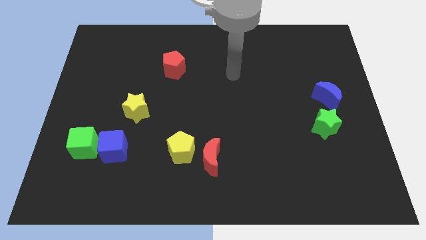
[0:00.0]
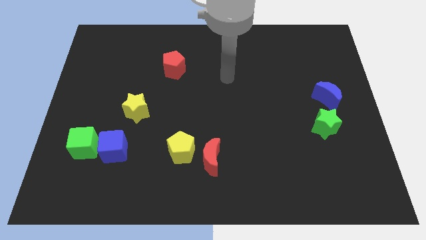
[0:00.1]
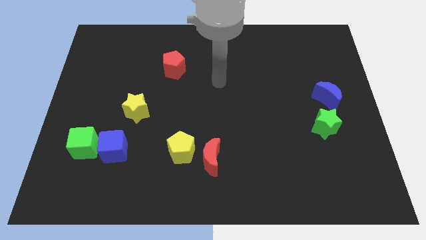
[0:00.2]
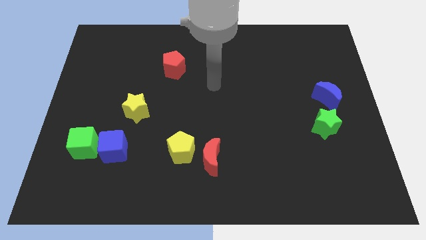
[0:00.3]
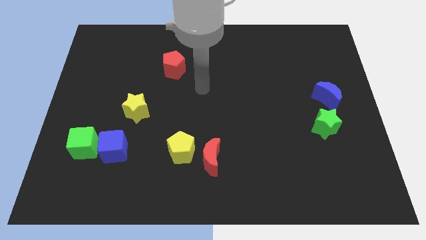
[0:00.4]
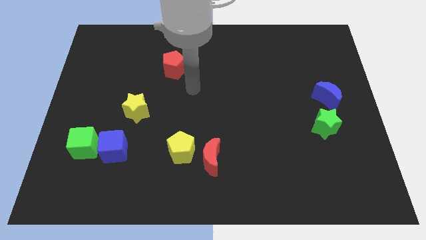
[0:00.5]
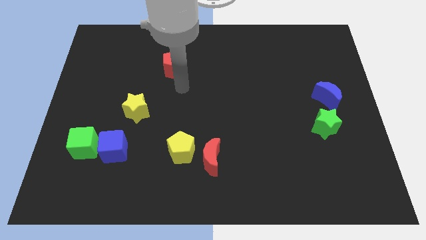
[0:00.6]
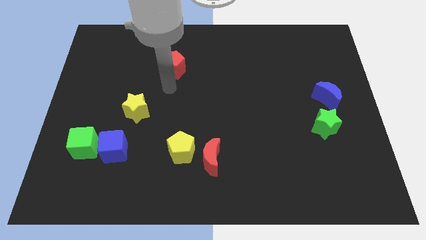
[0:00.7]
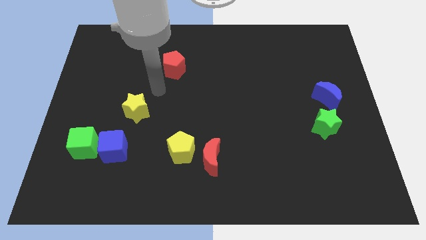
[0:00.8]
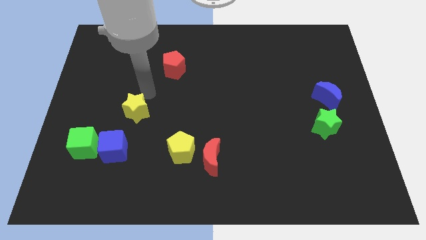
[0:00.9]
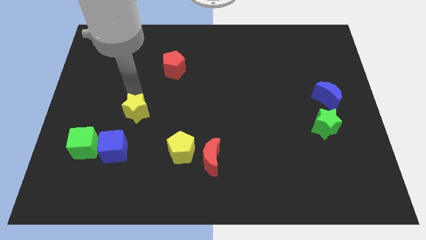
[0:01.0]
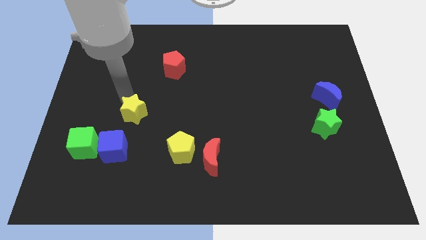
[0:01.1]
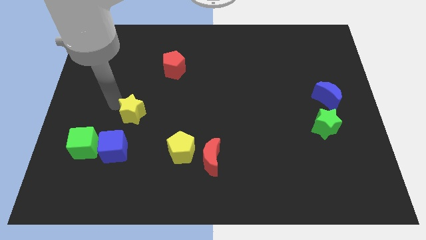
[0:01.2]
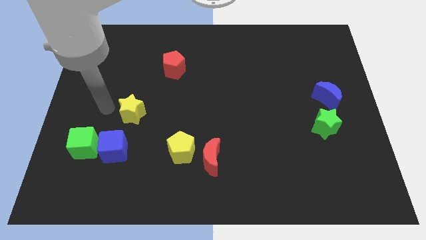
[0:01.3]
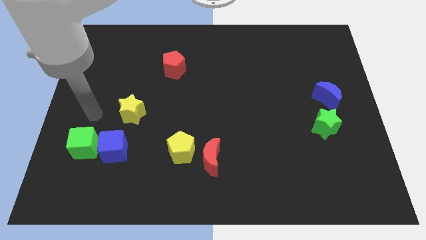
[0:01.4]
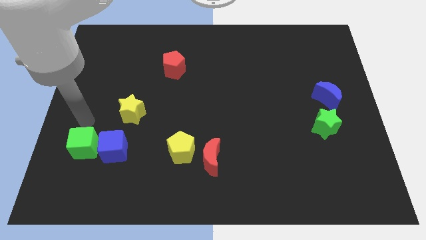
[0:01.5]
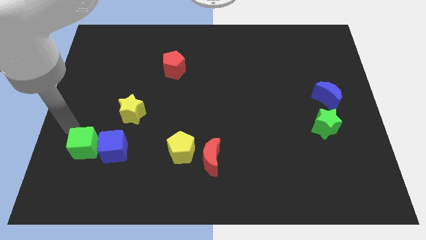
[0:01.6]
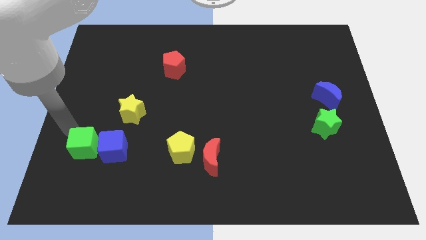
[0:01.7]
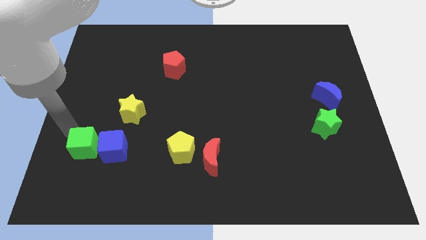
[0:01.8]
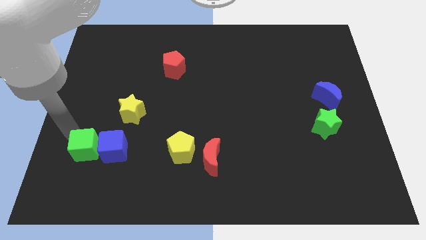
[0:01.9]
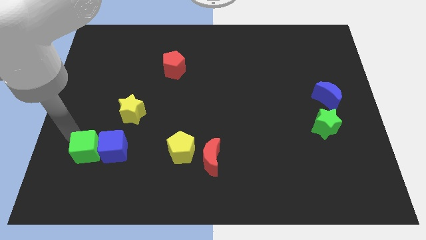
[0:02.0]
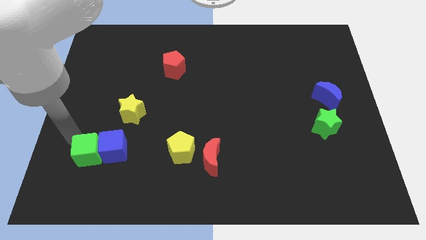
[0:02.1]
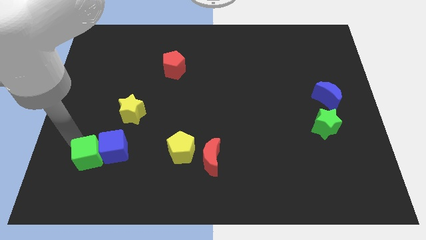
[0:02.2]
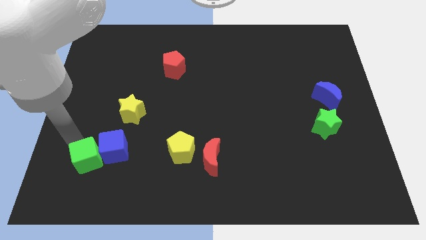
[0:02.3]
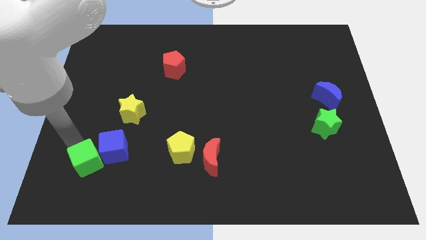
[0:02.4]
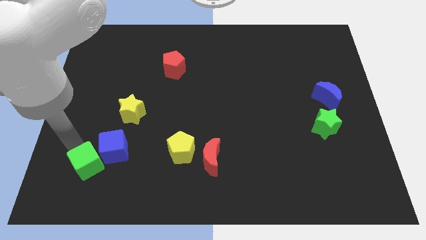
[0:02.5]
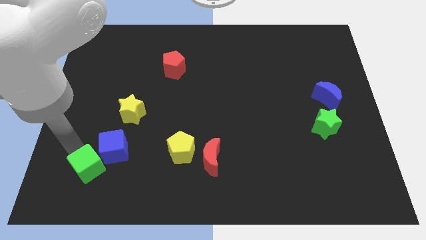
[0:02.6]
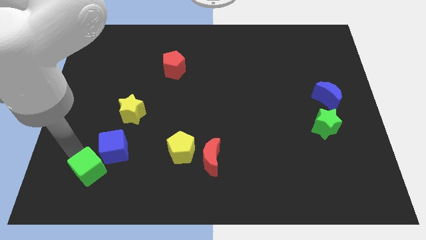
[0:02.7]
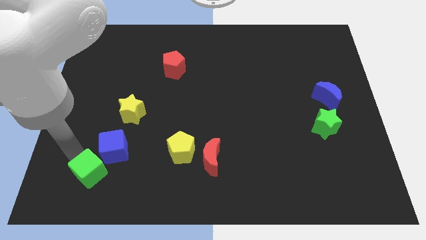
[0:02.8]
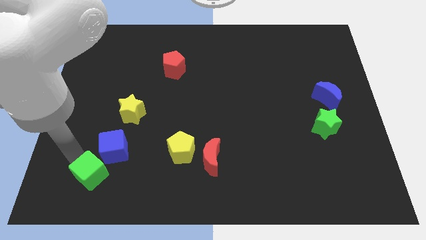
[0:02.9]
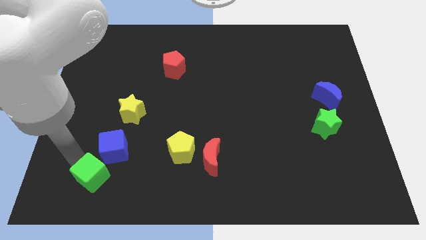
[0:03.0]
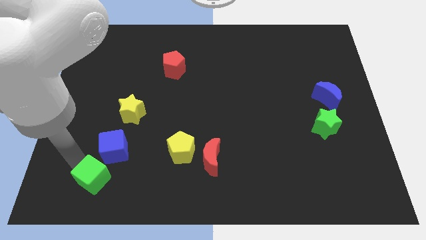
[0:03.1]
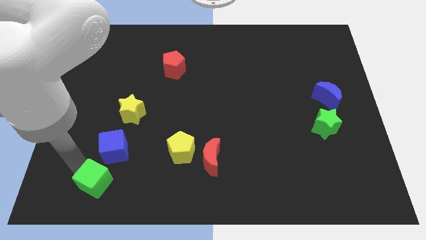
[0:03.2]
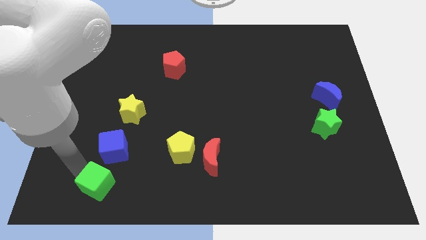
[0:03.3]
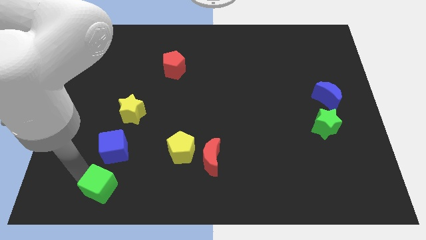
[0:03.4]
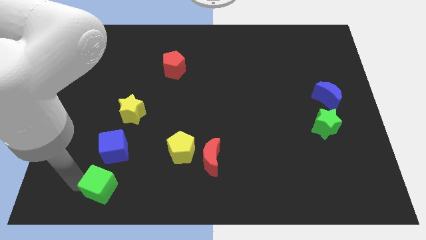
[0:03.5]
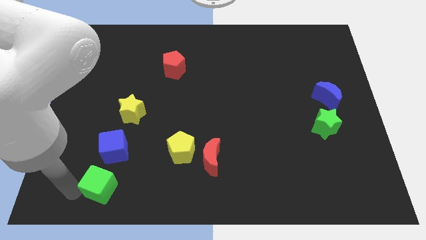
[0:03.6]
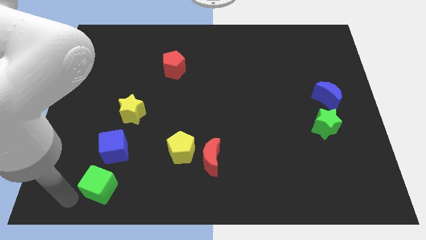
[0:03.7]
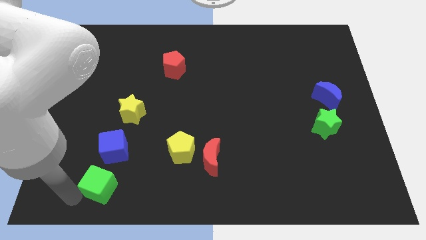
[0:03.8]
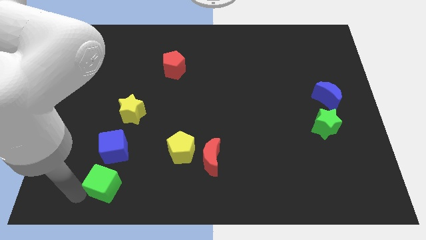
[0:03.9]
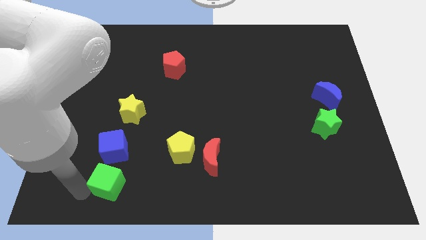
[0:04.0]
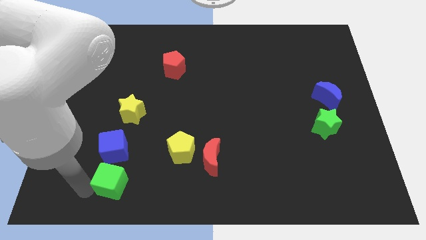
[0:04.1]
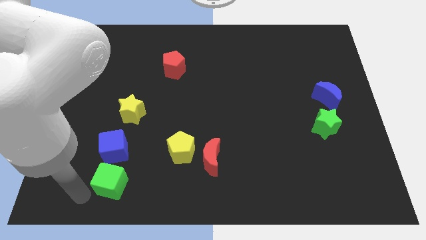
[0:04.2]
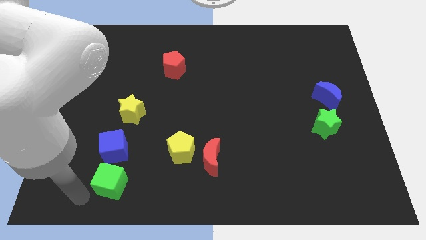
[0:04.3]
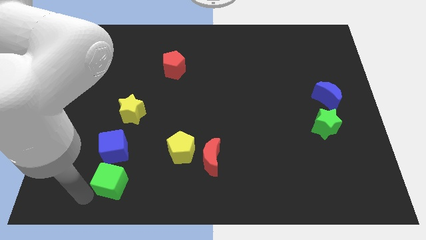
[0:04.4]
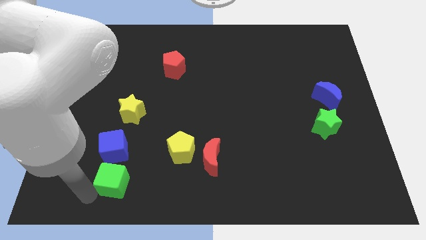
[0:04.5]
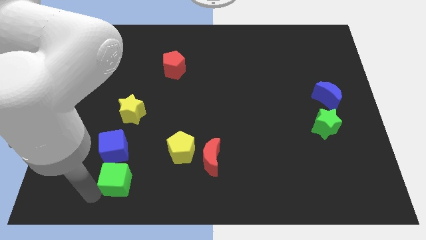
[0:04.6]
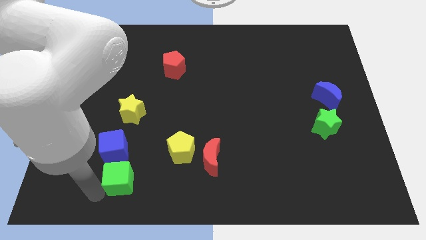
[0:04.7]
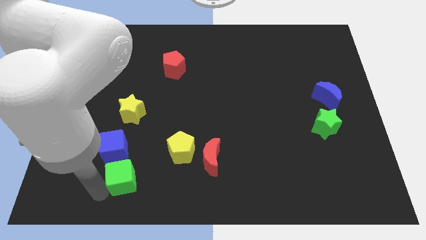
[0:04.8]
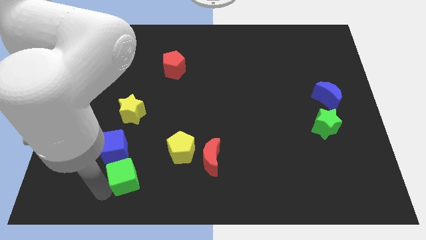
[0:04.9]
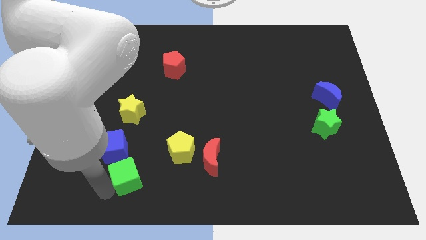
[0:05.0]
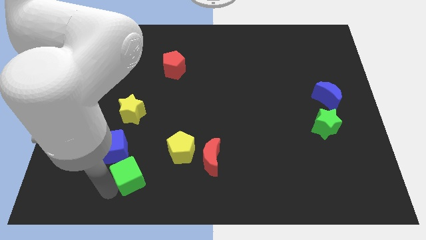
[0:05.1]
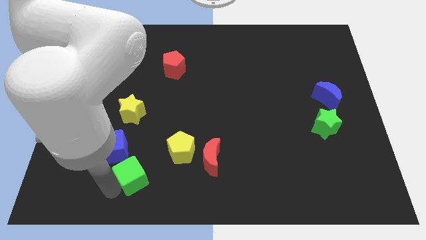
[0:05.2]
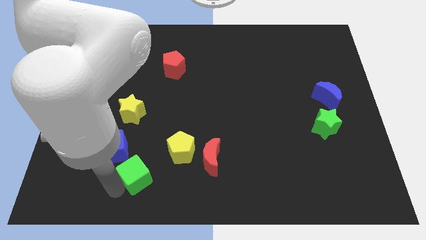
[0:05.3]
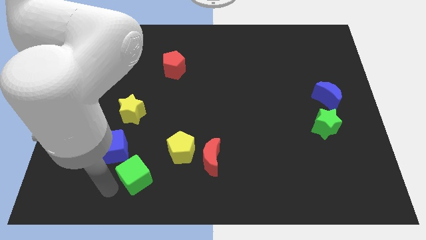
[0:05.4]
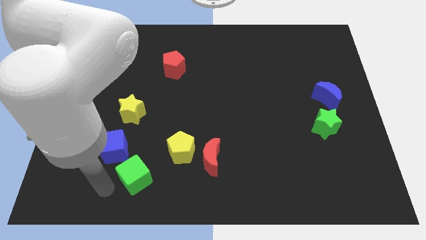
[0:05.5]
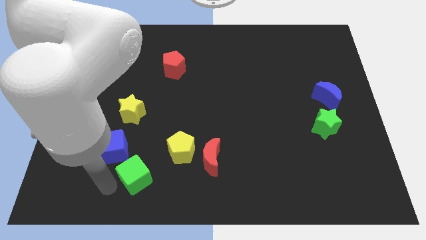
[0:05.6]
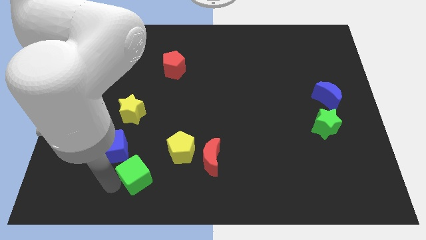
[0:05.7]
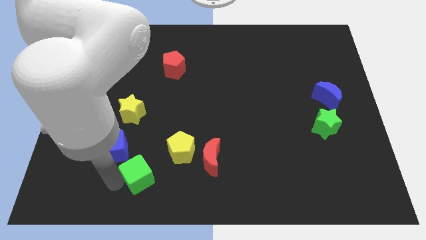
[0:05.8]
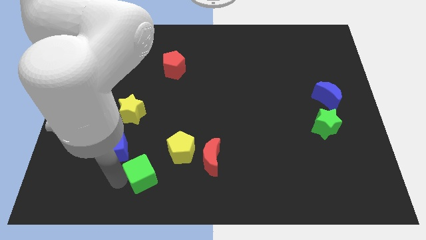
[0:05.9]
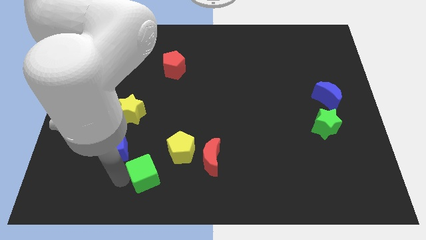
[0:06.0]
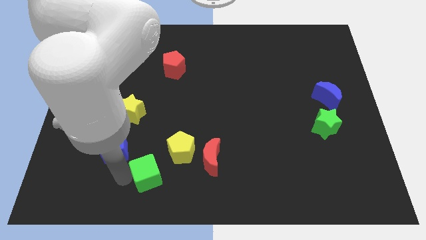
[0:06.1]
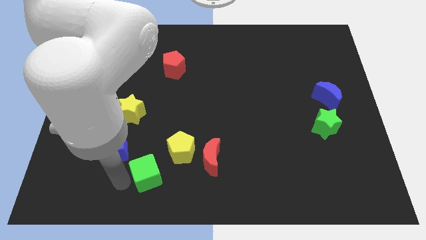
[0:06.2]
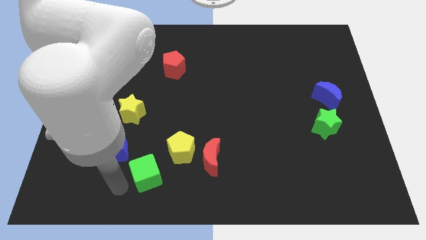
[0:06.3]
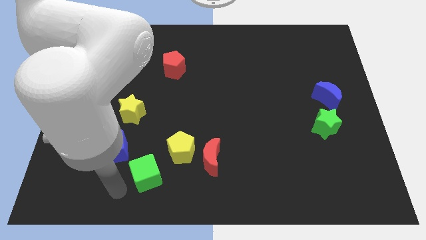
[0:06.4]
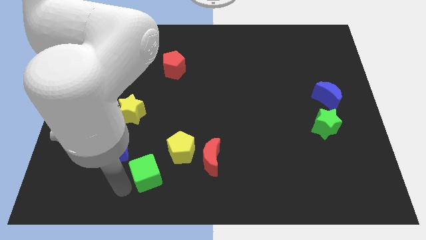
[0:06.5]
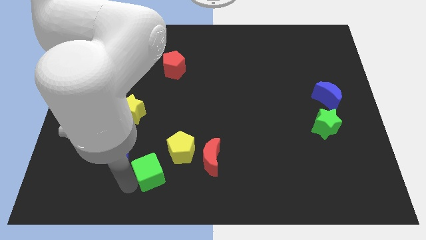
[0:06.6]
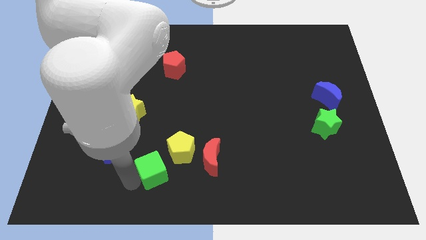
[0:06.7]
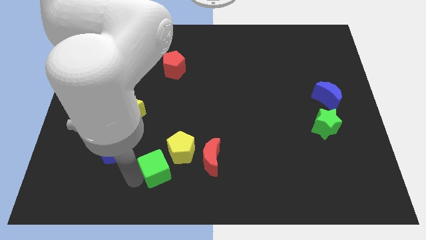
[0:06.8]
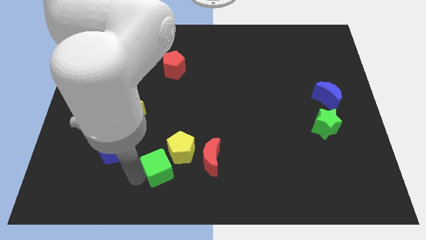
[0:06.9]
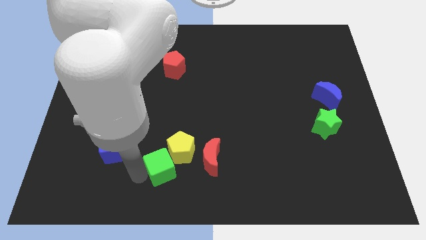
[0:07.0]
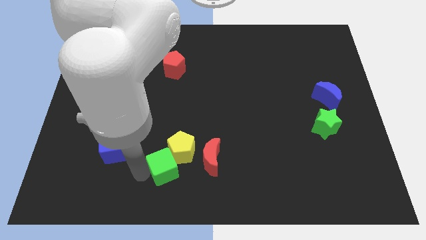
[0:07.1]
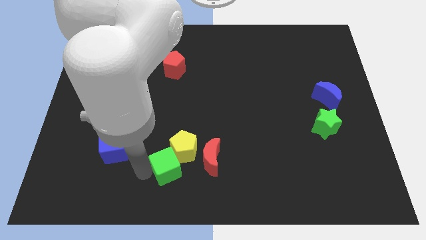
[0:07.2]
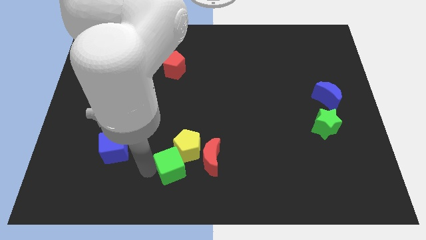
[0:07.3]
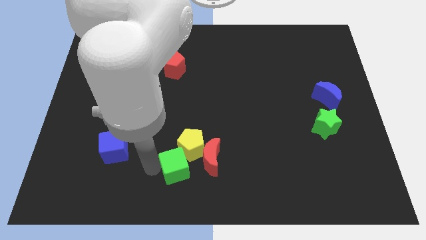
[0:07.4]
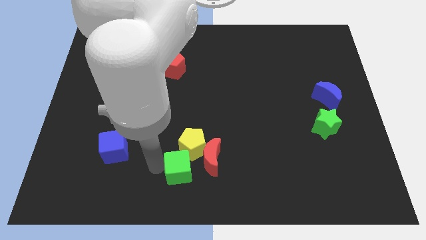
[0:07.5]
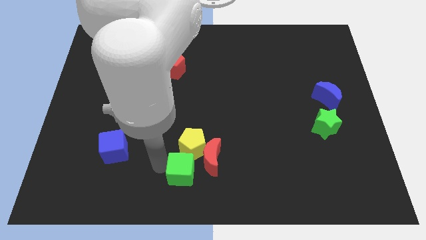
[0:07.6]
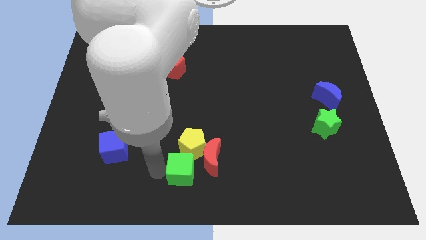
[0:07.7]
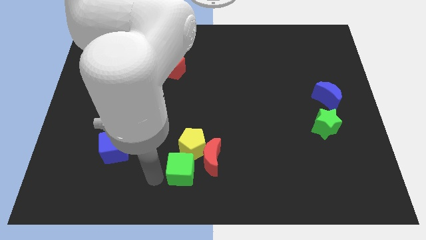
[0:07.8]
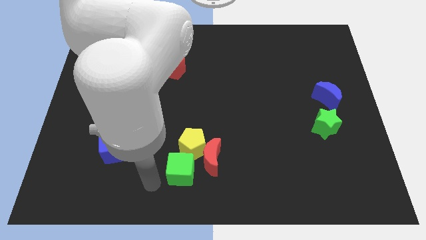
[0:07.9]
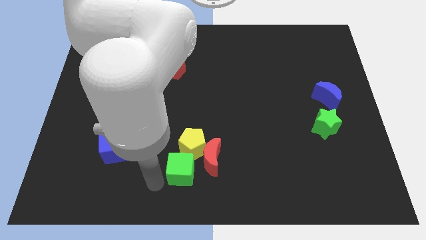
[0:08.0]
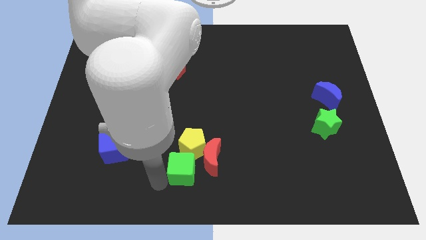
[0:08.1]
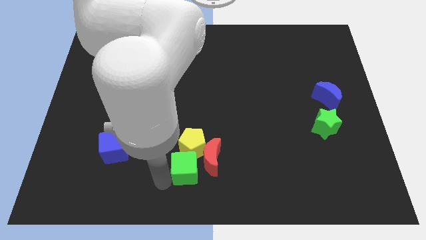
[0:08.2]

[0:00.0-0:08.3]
move the green cube to the red moon
